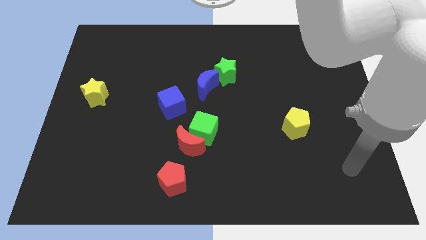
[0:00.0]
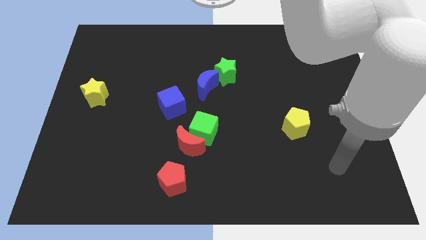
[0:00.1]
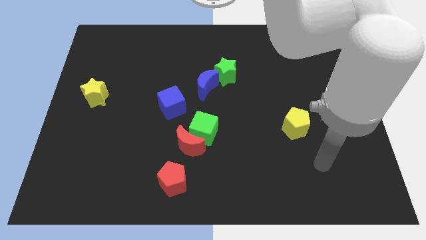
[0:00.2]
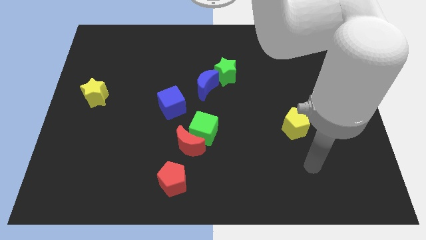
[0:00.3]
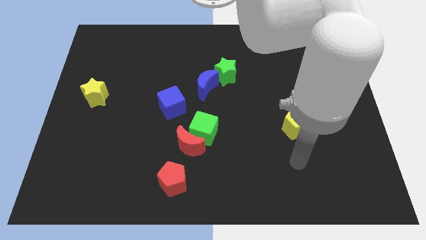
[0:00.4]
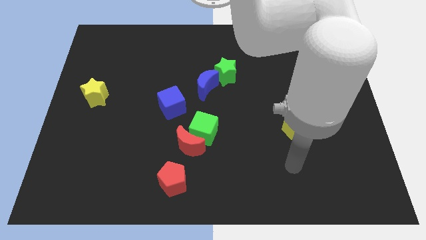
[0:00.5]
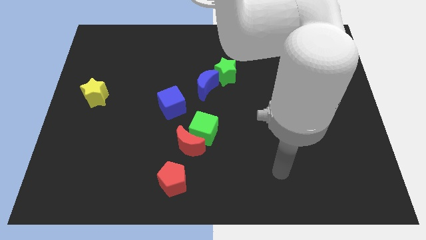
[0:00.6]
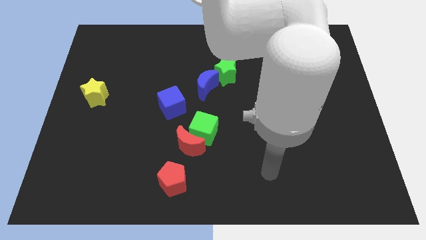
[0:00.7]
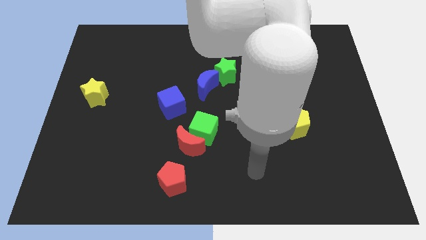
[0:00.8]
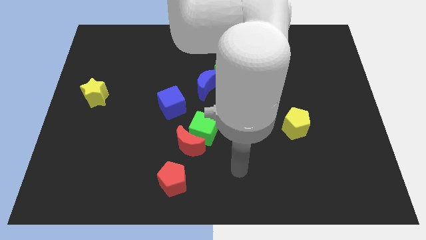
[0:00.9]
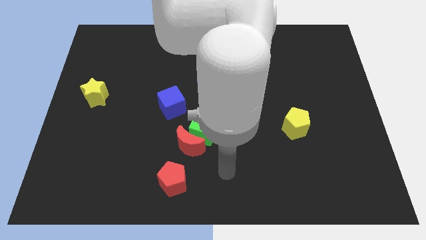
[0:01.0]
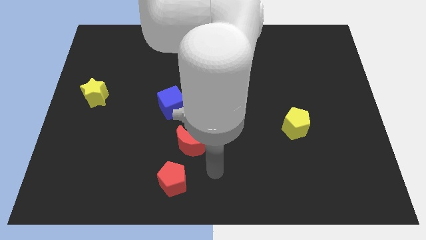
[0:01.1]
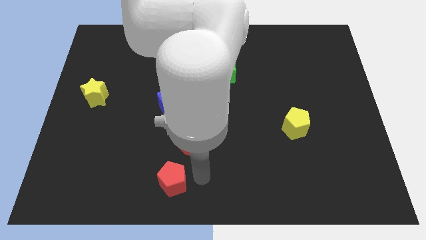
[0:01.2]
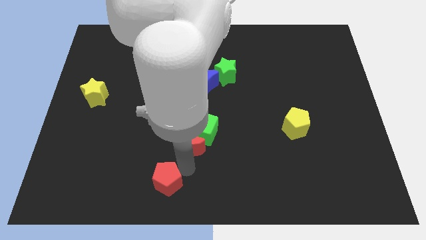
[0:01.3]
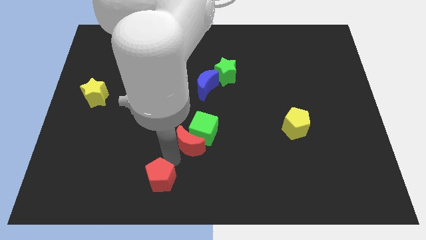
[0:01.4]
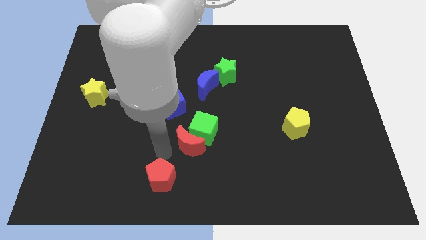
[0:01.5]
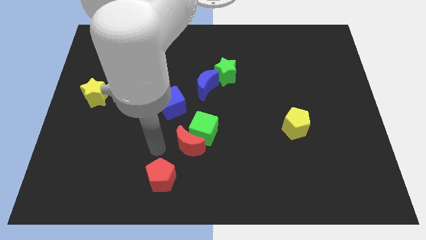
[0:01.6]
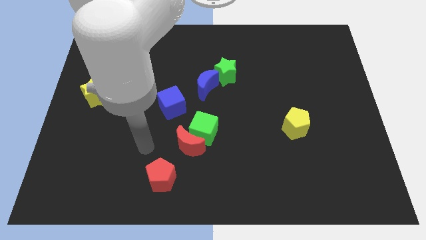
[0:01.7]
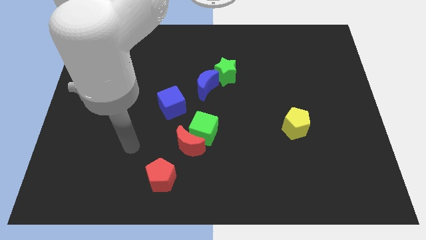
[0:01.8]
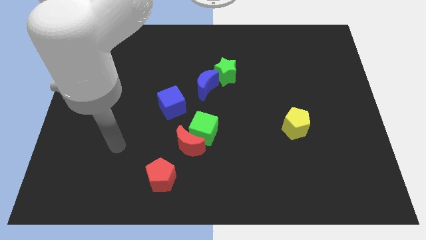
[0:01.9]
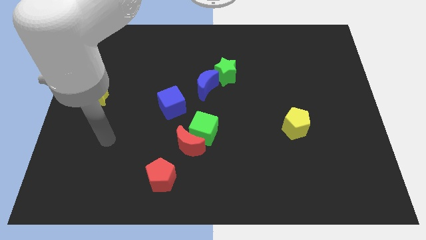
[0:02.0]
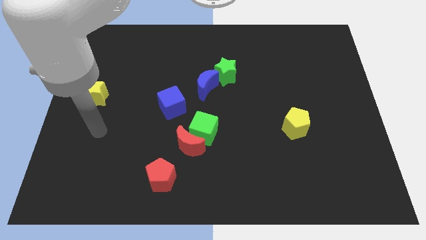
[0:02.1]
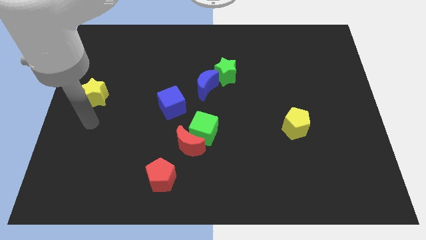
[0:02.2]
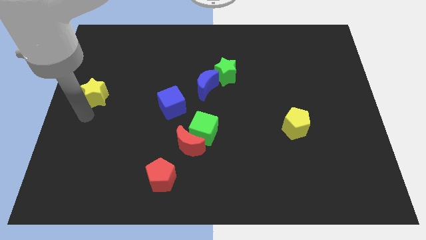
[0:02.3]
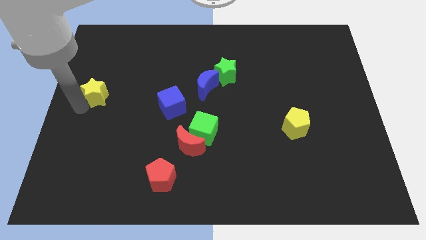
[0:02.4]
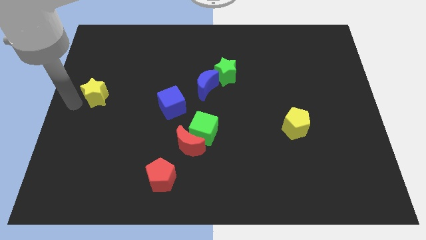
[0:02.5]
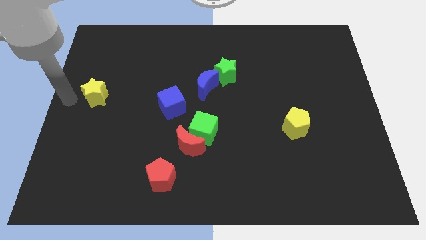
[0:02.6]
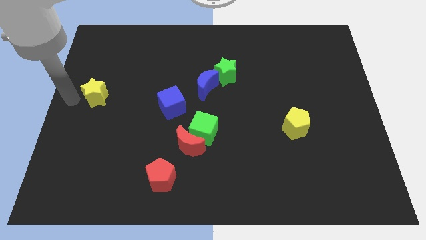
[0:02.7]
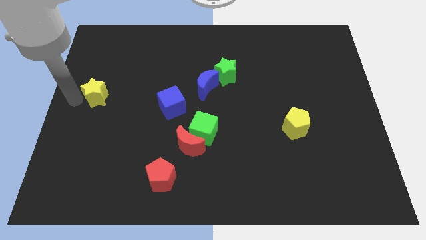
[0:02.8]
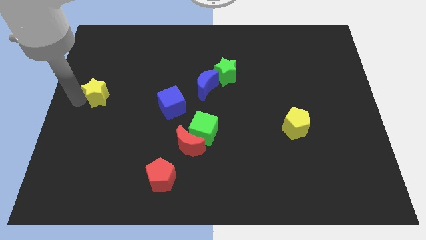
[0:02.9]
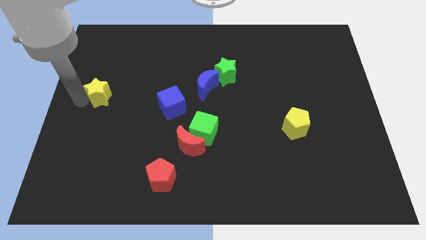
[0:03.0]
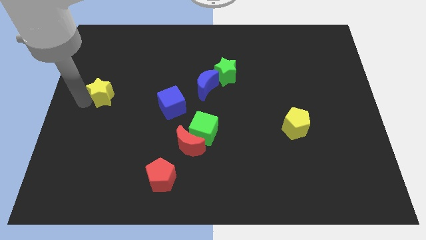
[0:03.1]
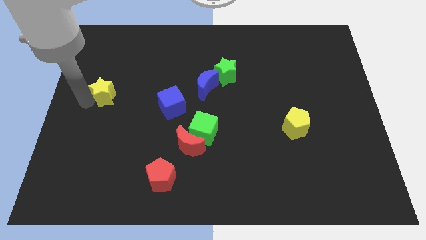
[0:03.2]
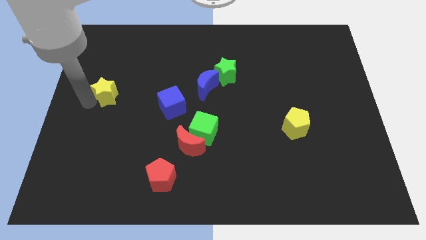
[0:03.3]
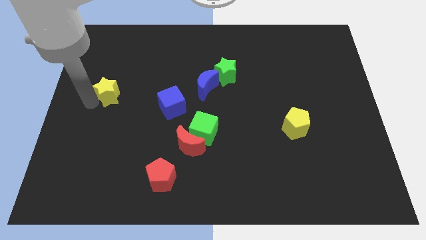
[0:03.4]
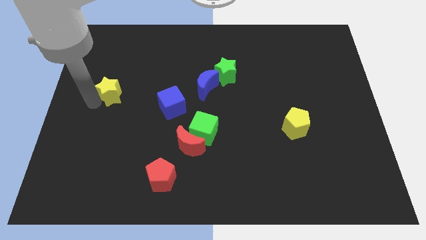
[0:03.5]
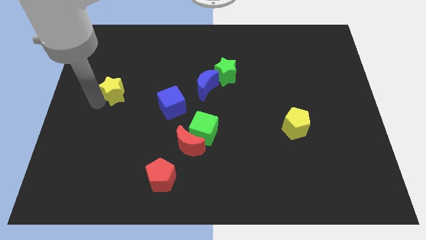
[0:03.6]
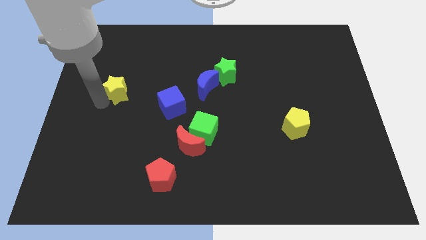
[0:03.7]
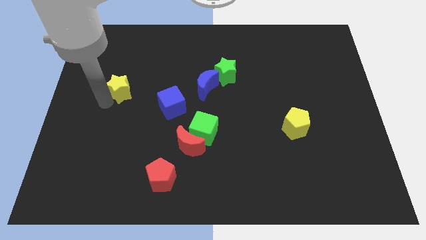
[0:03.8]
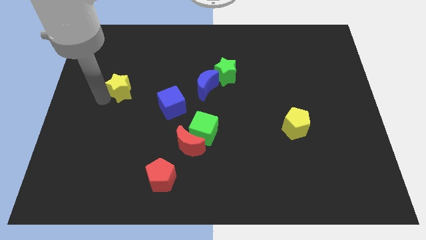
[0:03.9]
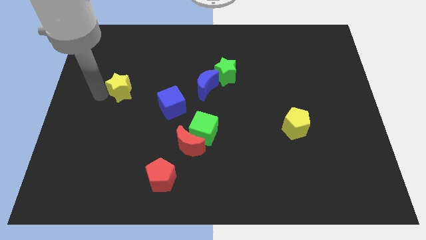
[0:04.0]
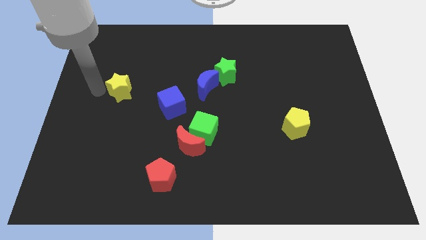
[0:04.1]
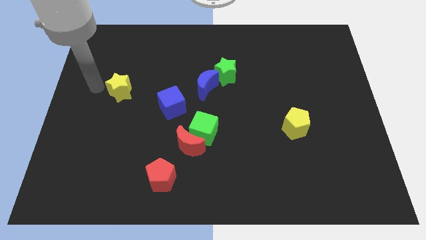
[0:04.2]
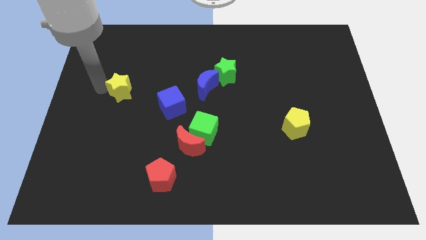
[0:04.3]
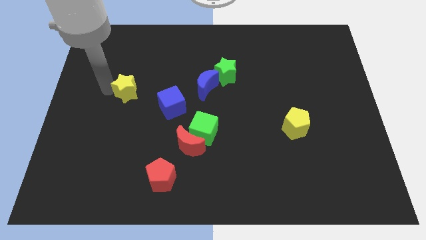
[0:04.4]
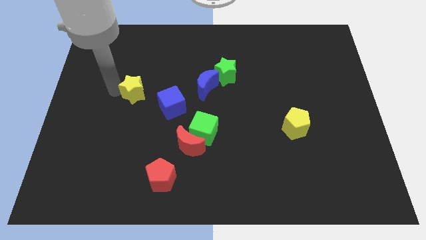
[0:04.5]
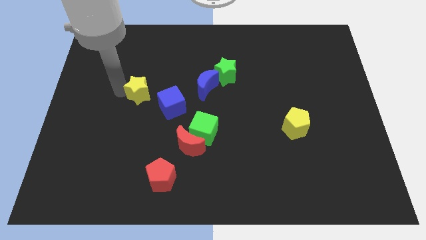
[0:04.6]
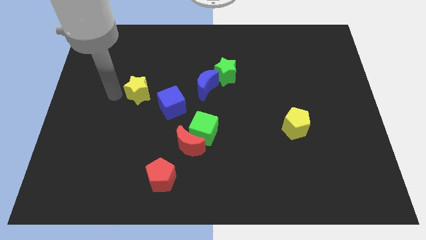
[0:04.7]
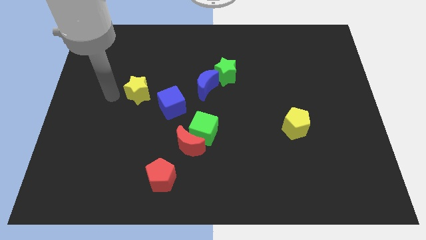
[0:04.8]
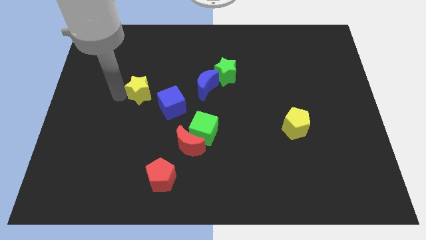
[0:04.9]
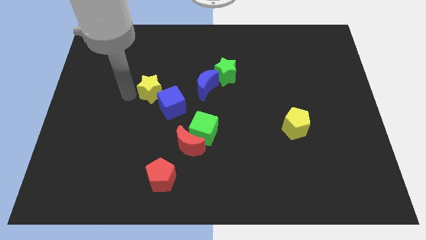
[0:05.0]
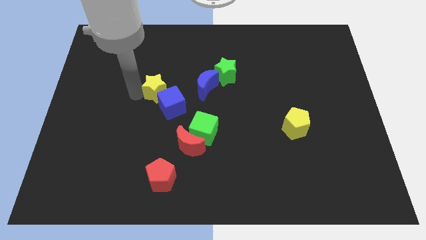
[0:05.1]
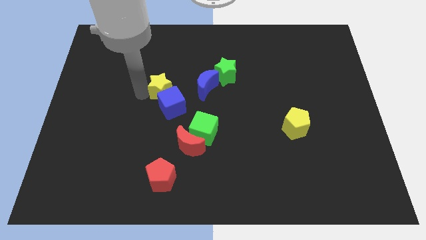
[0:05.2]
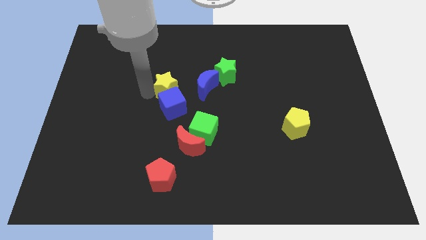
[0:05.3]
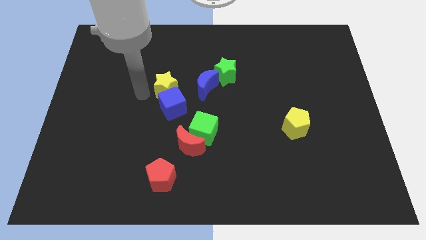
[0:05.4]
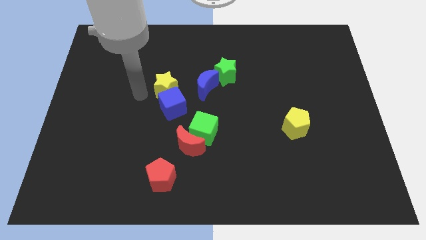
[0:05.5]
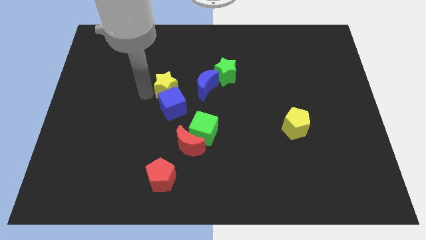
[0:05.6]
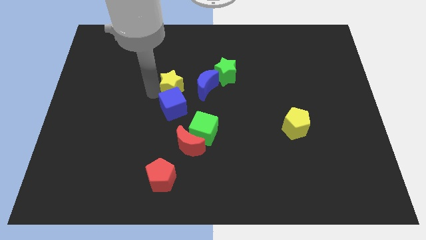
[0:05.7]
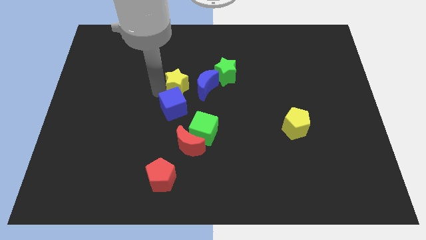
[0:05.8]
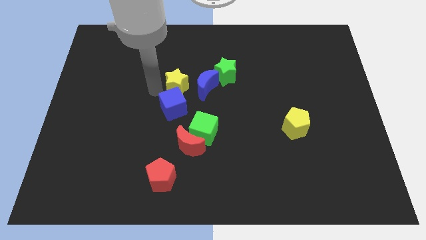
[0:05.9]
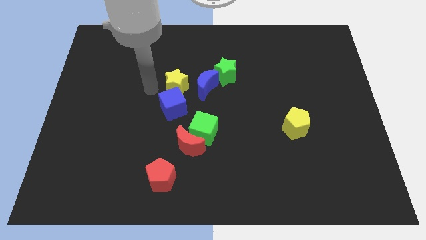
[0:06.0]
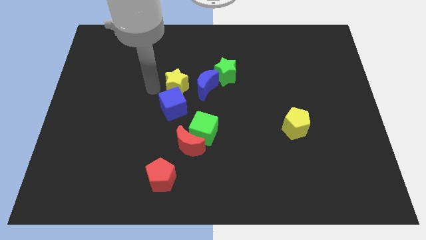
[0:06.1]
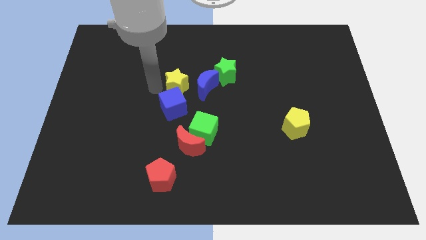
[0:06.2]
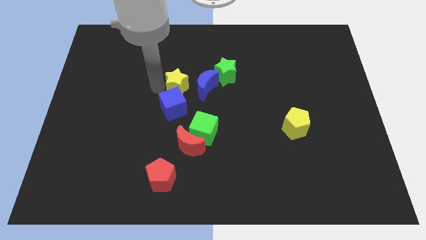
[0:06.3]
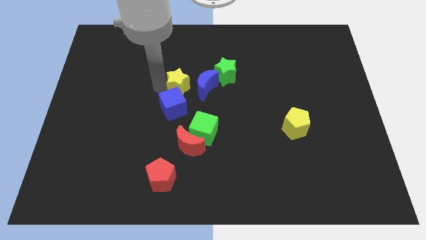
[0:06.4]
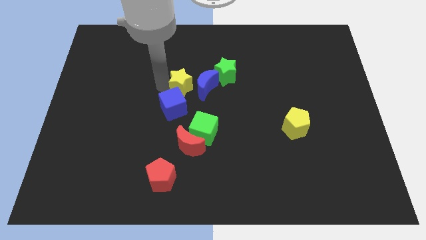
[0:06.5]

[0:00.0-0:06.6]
push the yellow star towards the blue moon

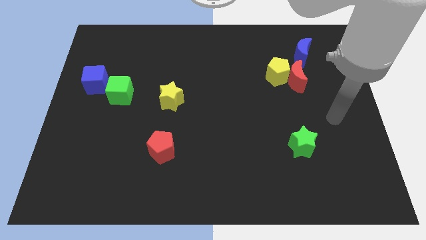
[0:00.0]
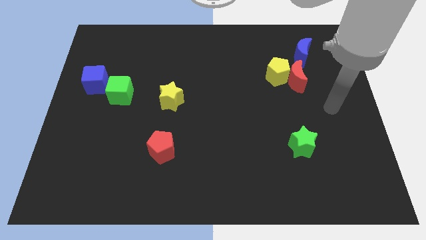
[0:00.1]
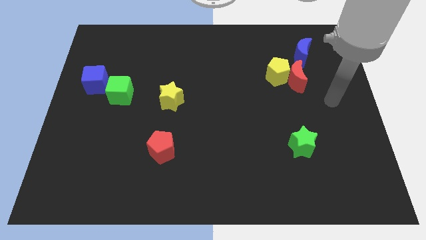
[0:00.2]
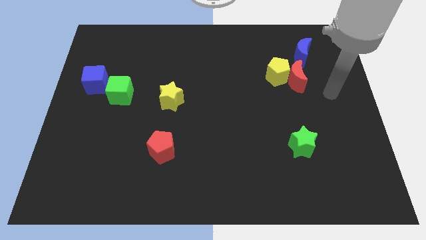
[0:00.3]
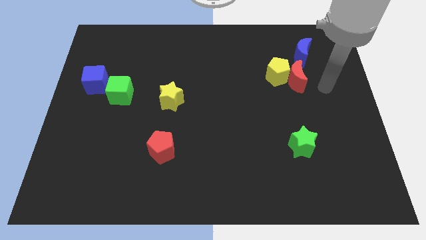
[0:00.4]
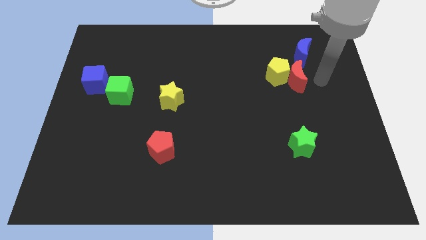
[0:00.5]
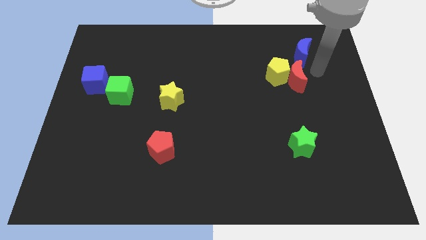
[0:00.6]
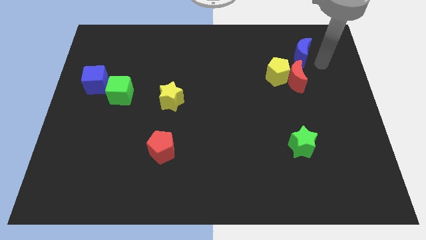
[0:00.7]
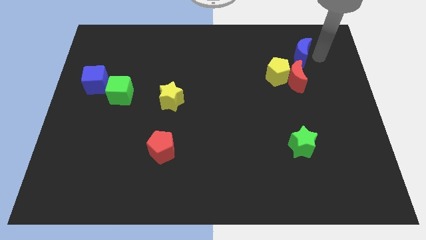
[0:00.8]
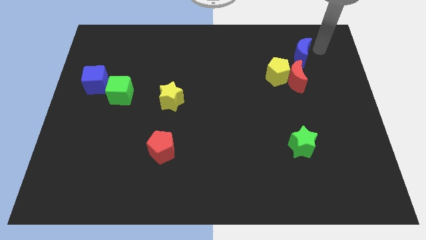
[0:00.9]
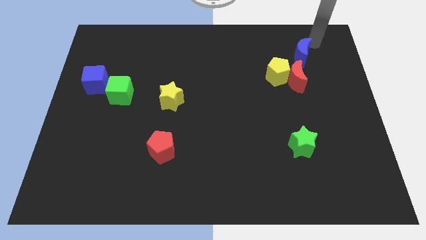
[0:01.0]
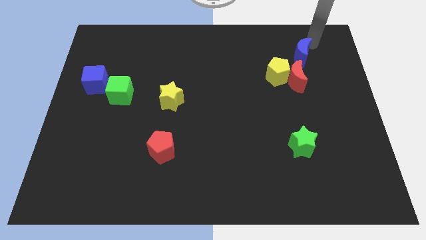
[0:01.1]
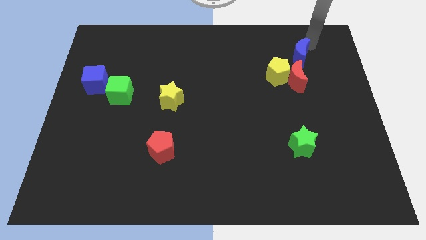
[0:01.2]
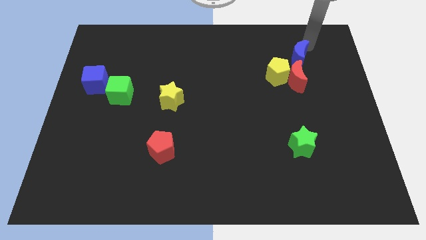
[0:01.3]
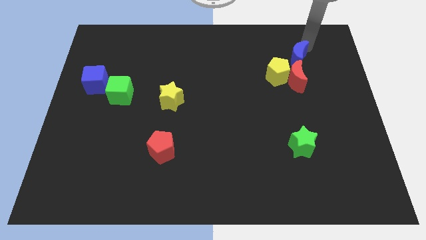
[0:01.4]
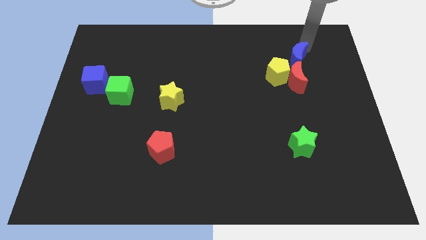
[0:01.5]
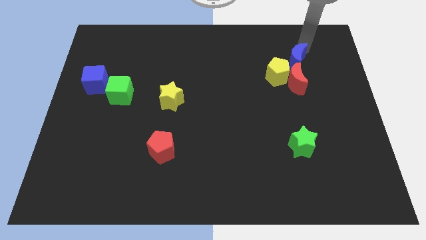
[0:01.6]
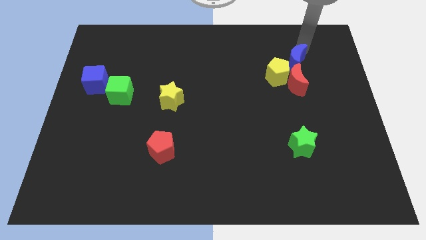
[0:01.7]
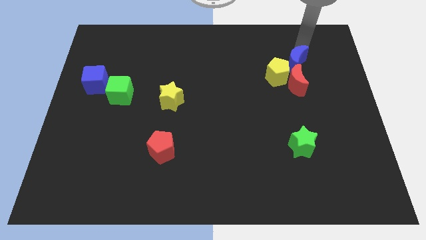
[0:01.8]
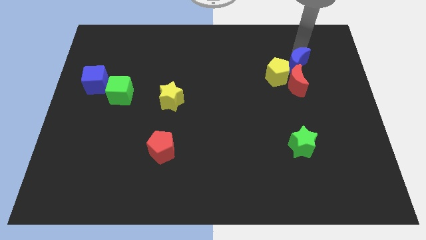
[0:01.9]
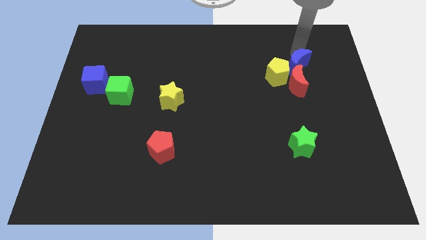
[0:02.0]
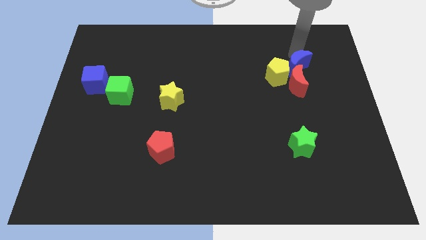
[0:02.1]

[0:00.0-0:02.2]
move the blue moon to the yellow pentagon
